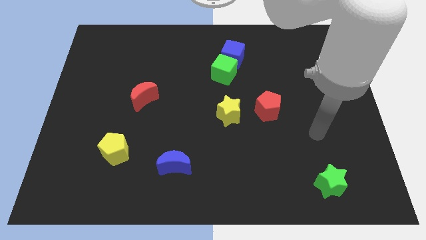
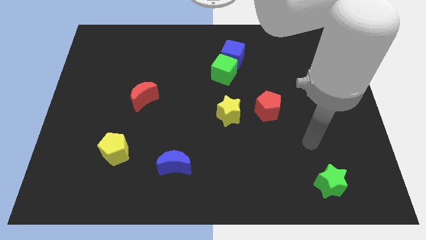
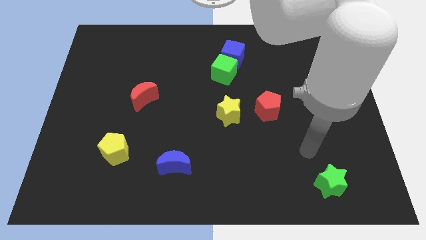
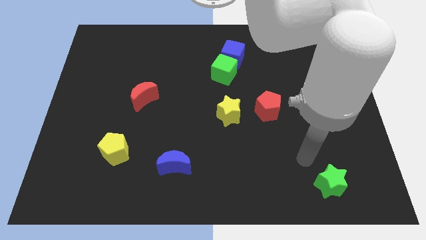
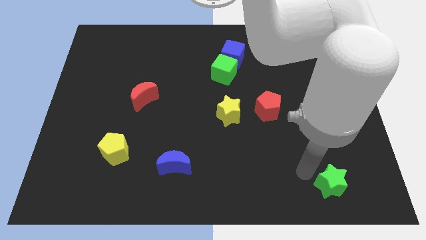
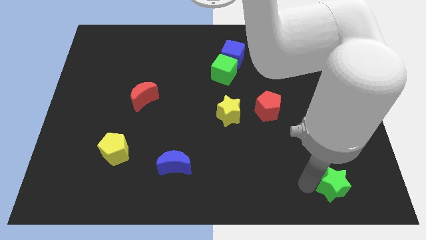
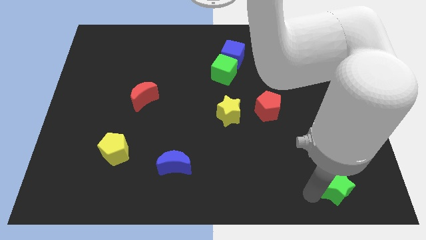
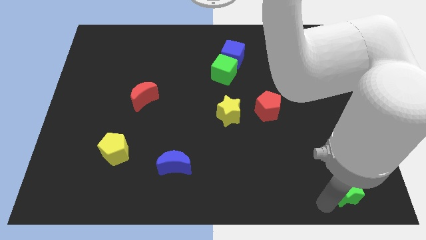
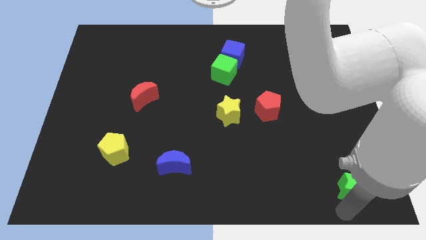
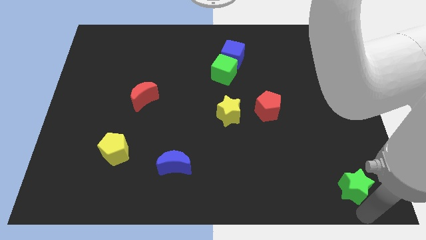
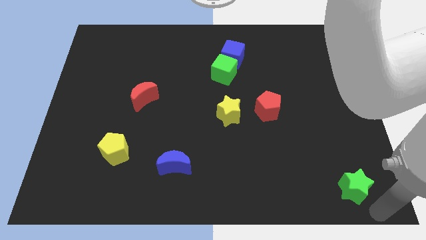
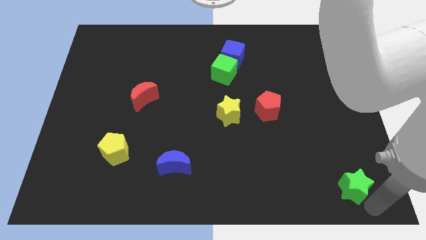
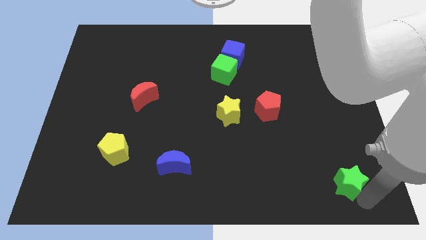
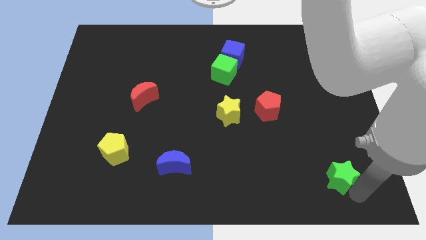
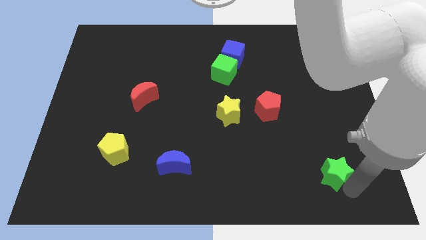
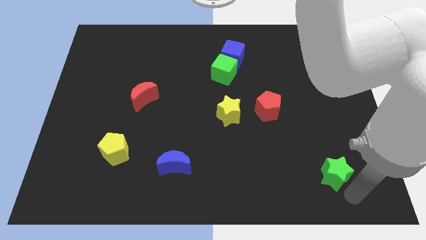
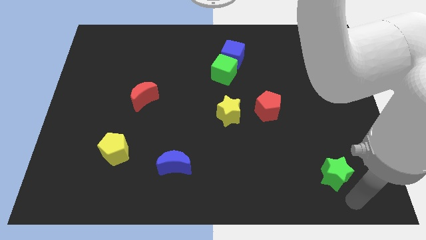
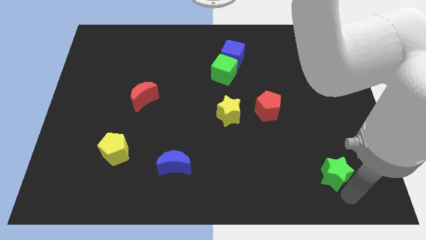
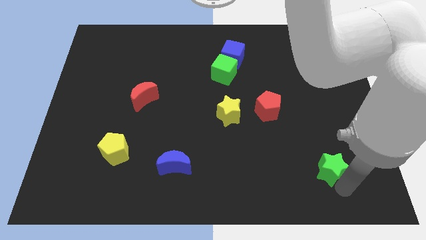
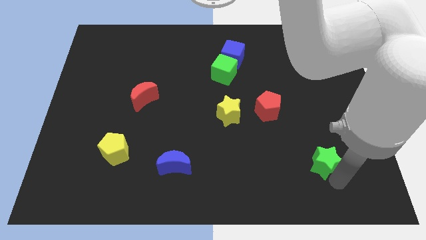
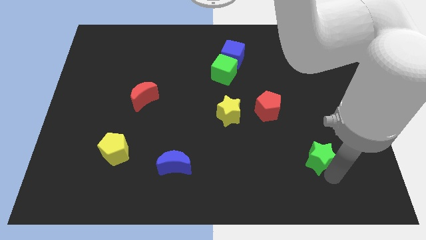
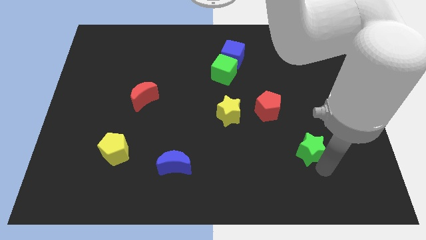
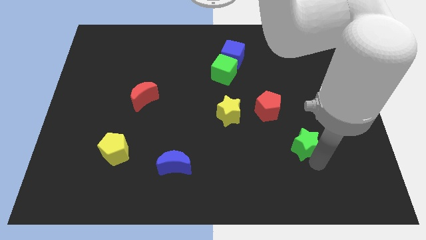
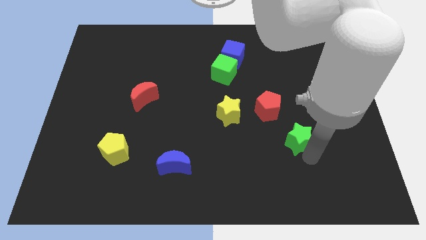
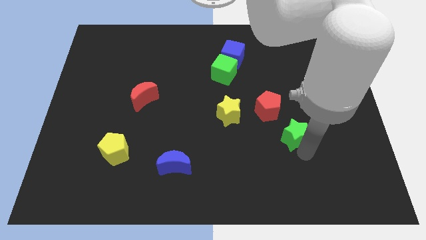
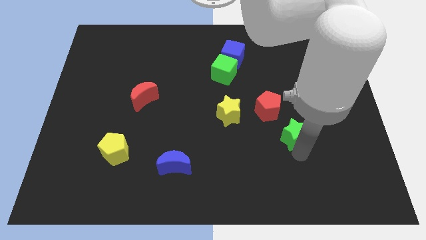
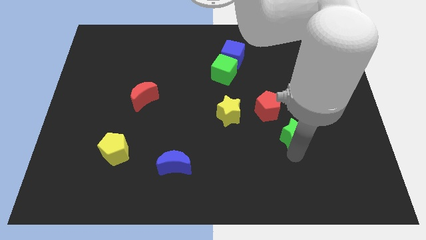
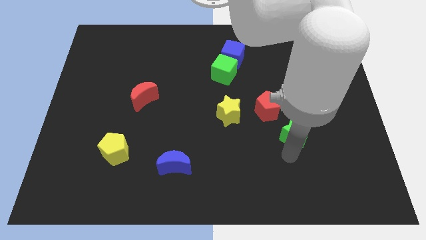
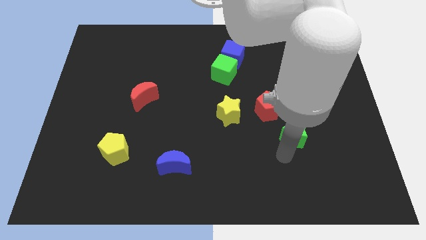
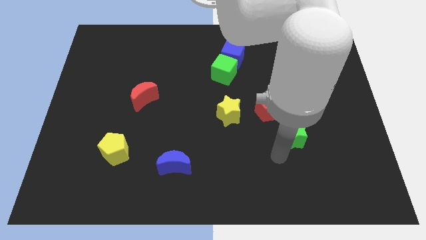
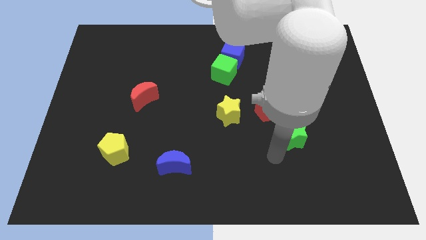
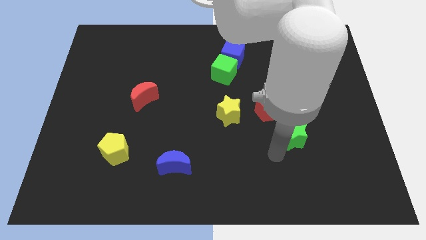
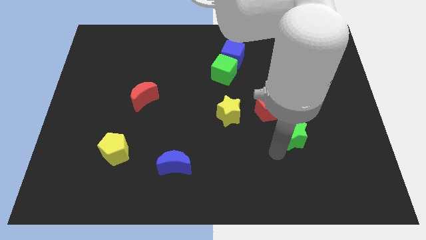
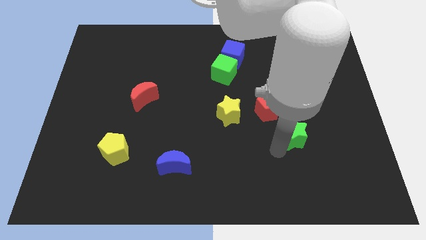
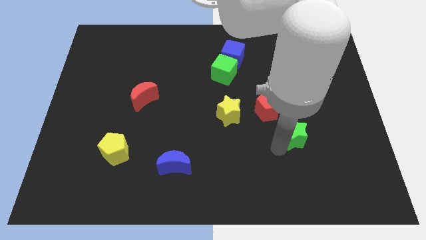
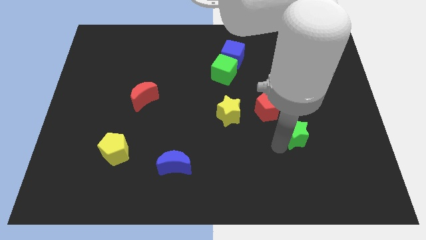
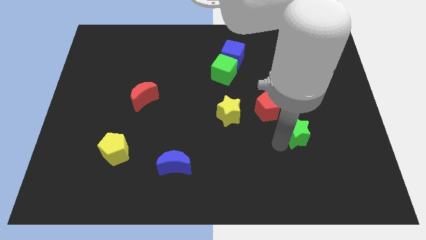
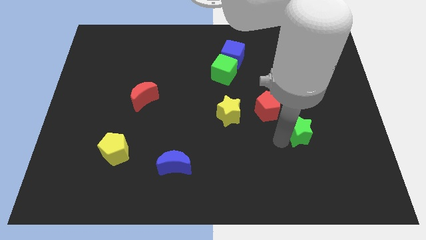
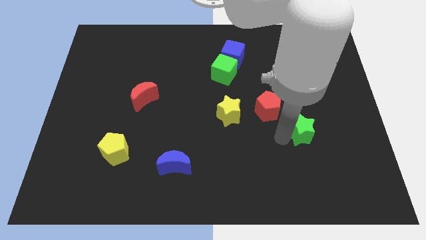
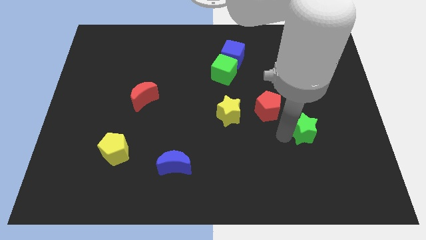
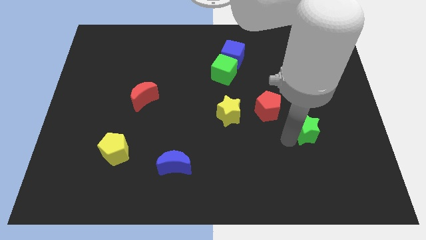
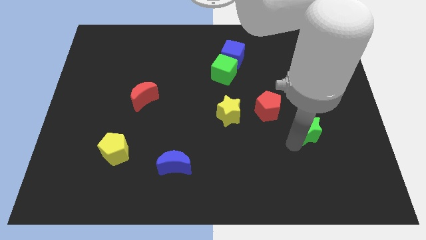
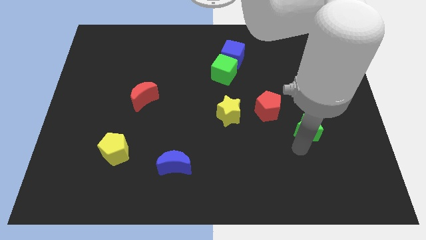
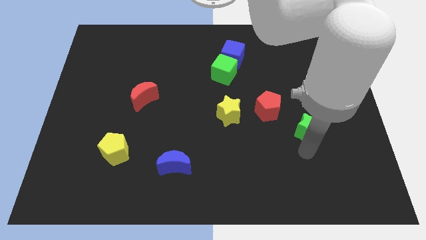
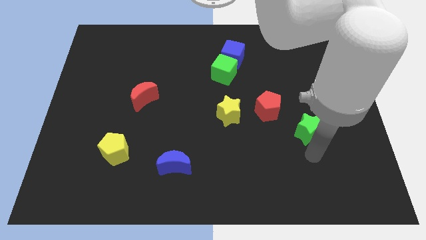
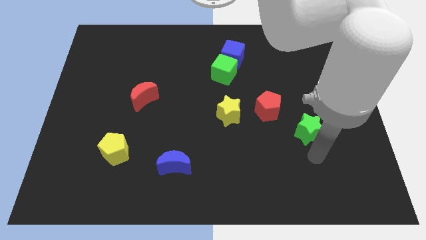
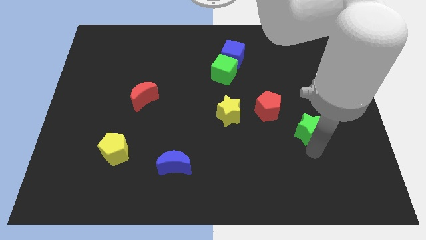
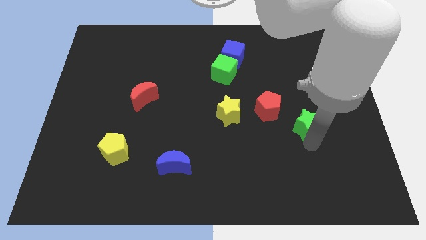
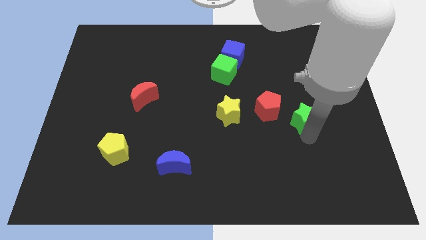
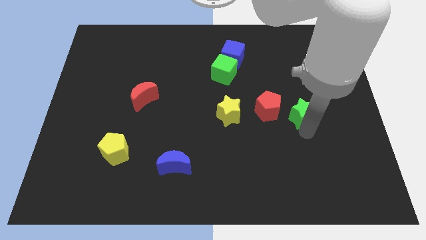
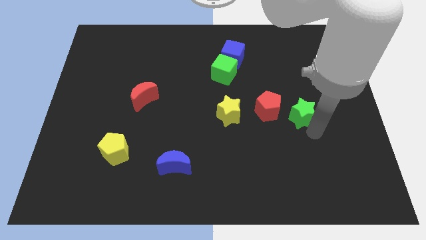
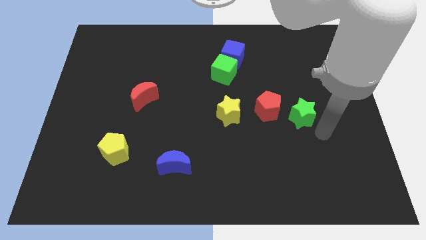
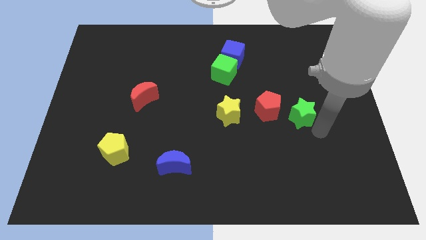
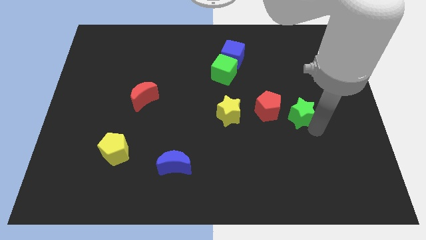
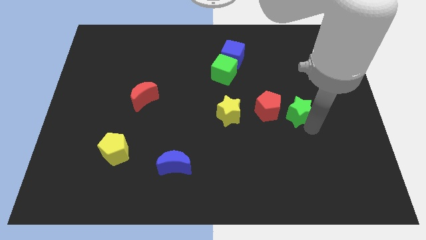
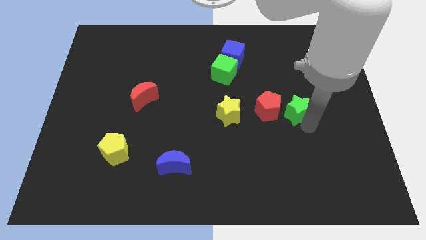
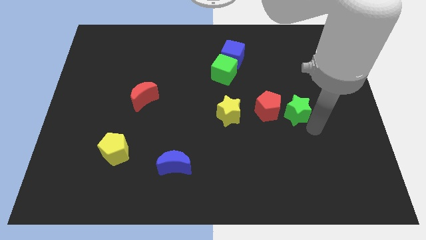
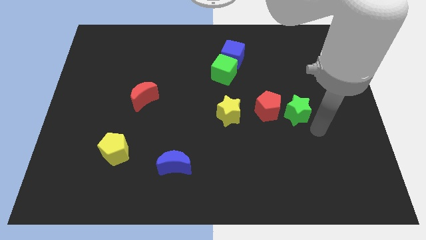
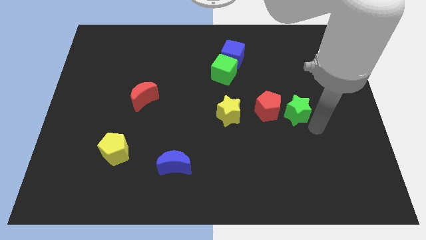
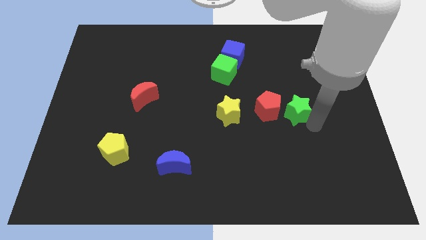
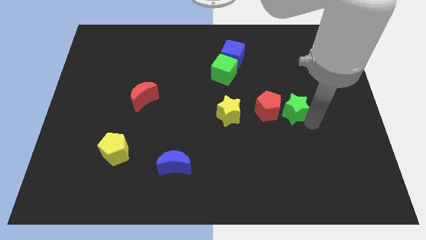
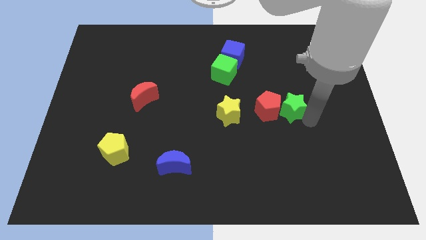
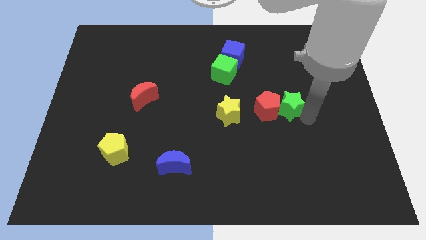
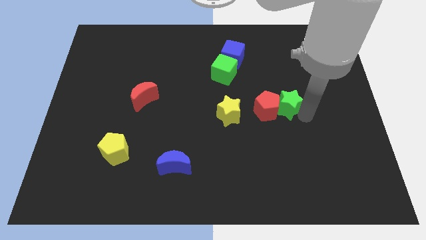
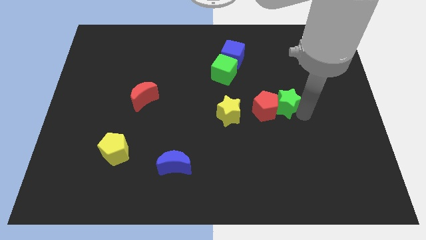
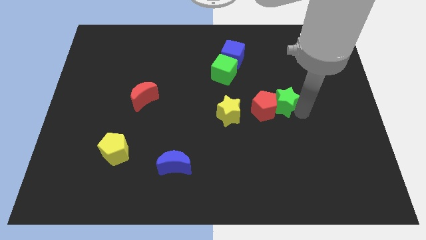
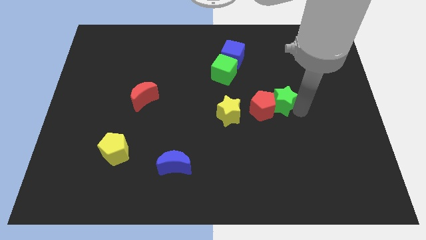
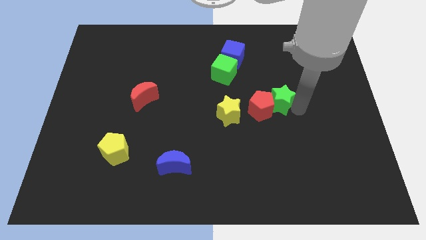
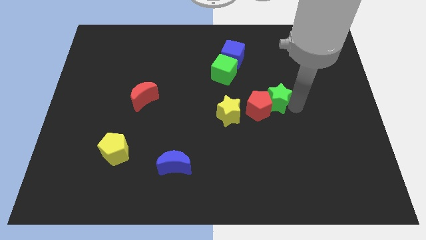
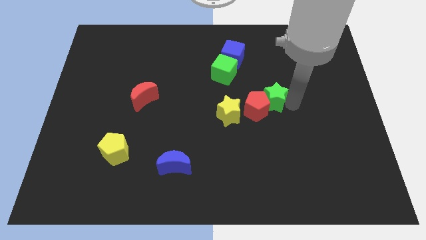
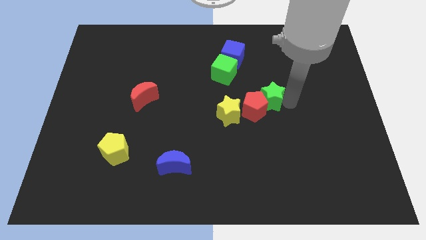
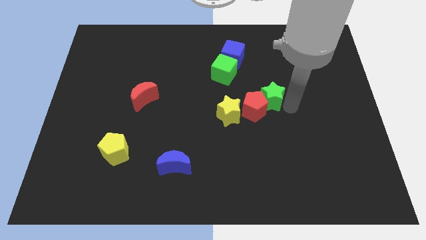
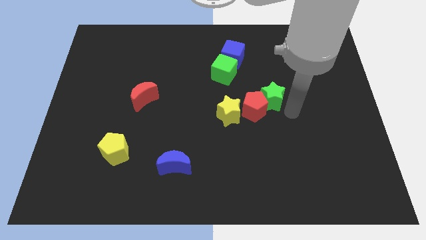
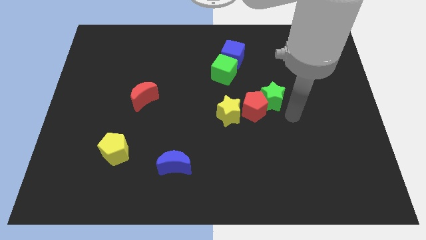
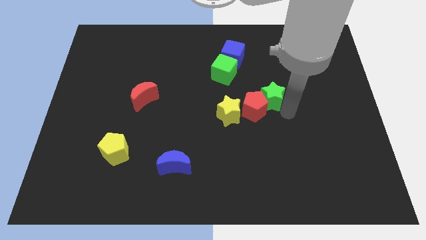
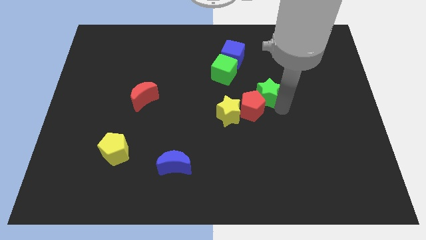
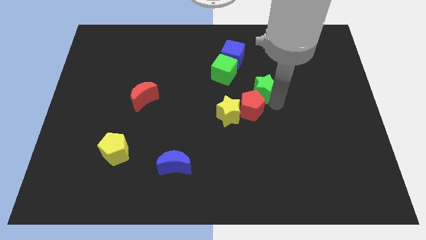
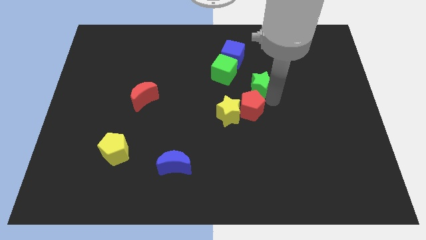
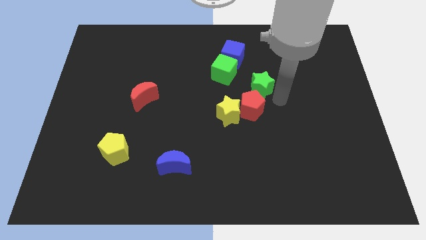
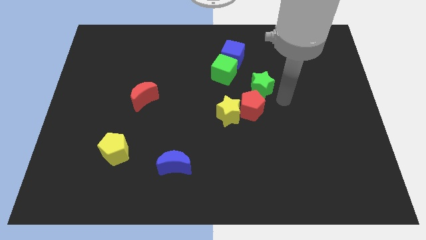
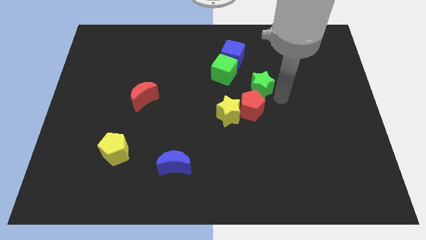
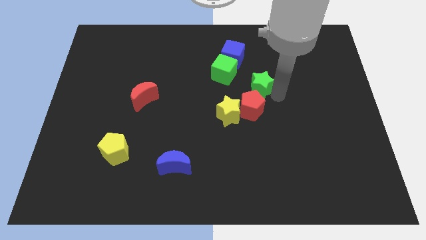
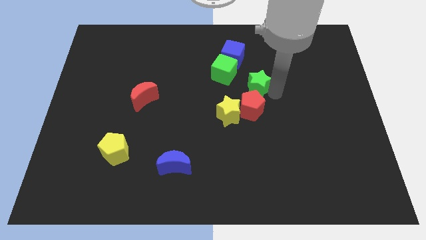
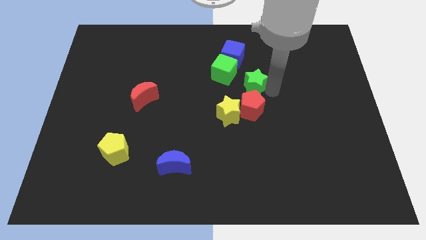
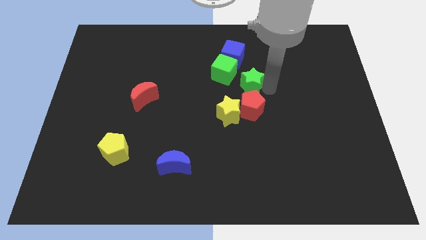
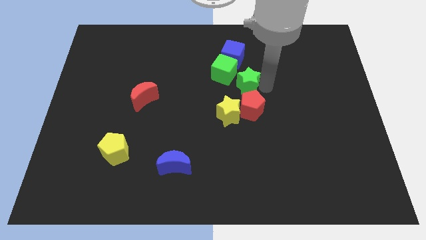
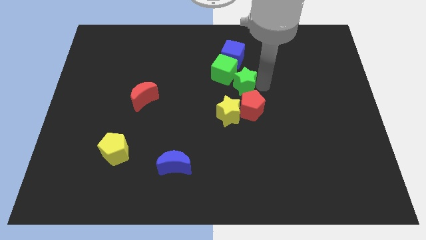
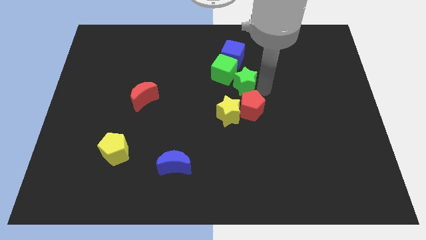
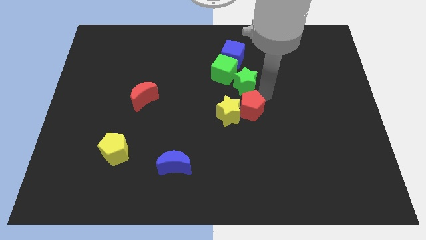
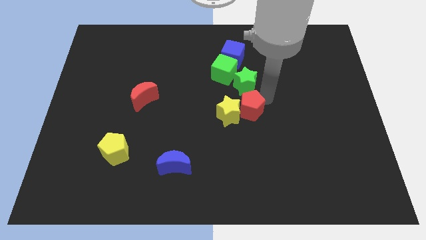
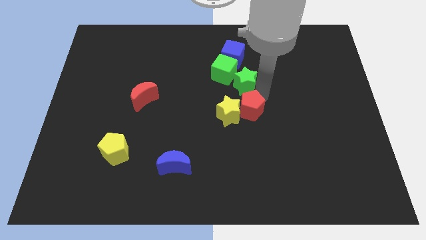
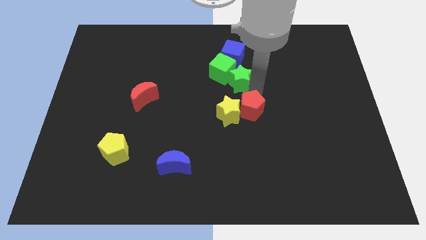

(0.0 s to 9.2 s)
move the green star next to the green cube
